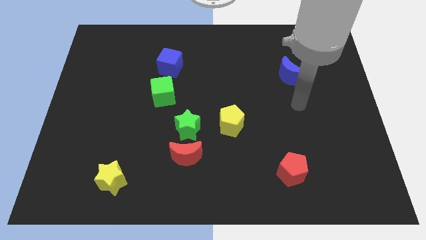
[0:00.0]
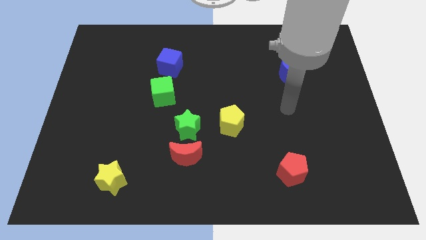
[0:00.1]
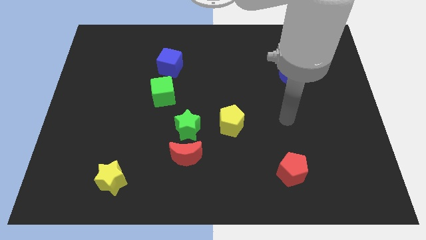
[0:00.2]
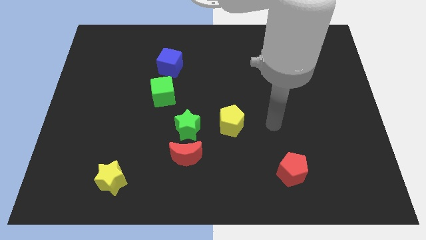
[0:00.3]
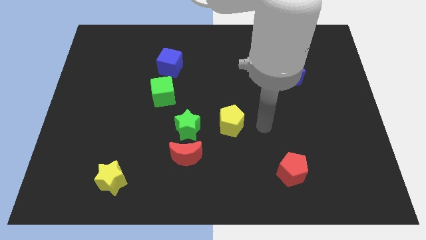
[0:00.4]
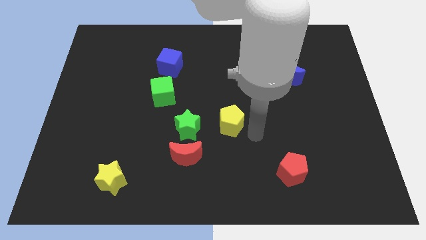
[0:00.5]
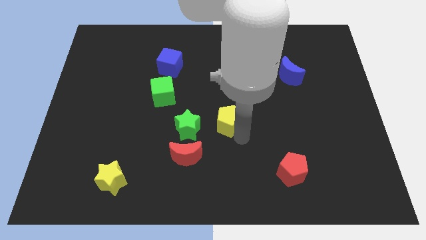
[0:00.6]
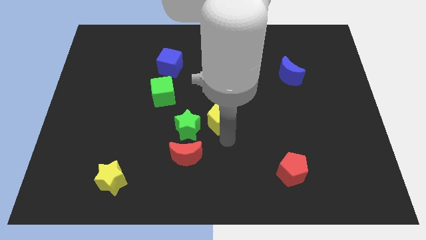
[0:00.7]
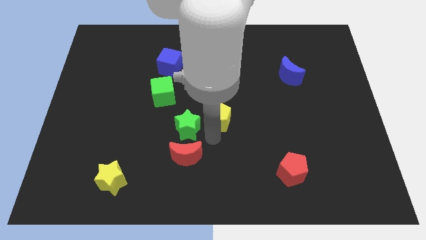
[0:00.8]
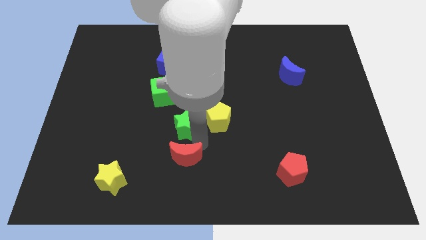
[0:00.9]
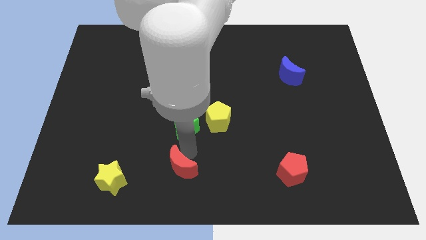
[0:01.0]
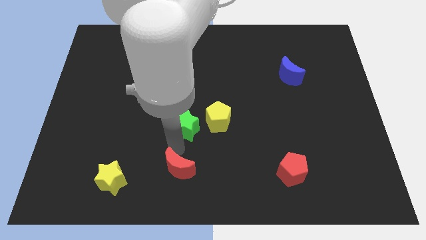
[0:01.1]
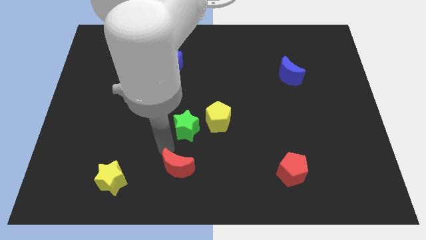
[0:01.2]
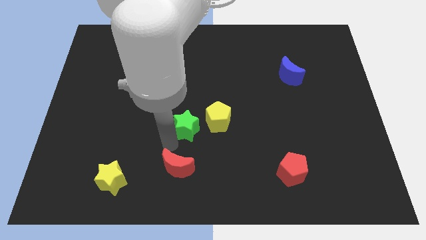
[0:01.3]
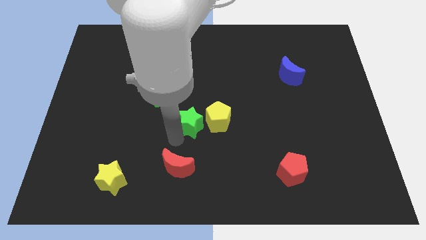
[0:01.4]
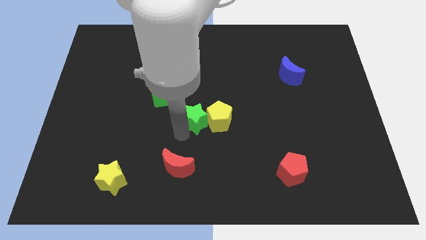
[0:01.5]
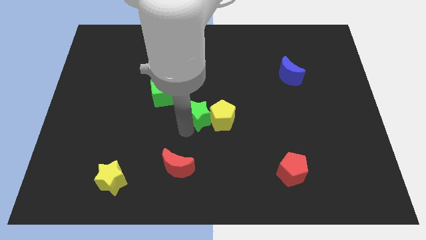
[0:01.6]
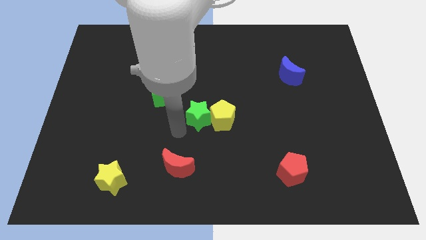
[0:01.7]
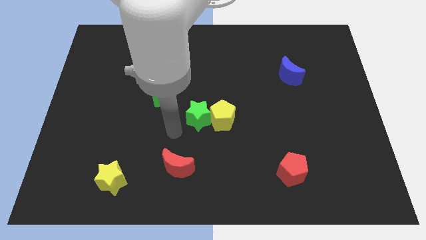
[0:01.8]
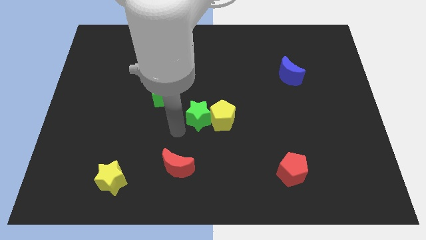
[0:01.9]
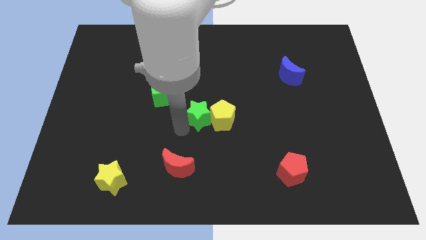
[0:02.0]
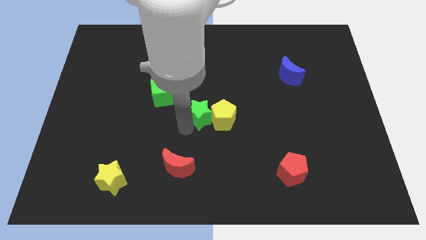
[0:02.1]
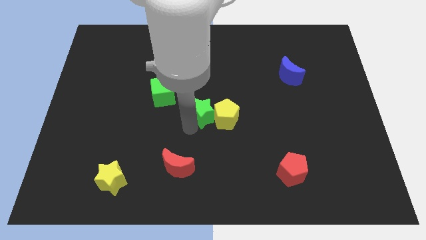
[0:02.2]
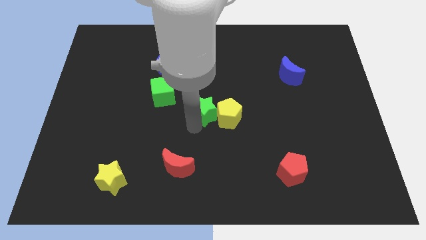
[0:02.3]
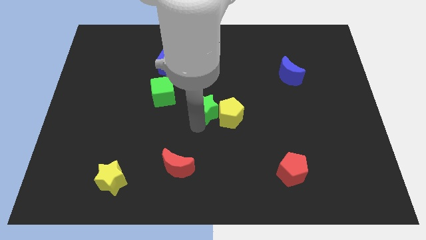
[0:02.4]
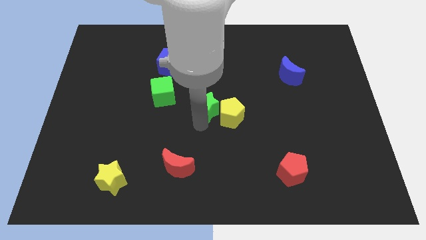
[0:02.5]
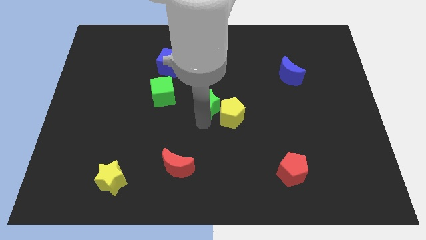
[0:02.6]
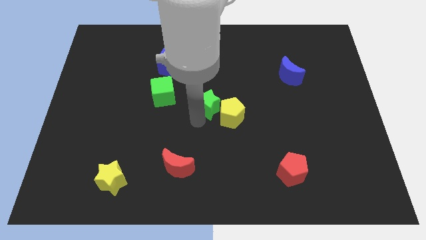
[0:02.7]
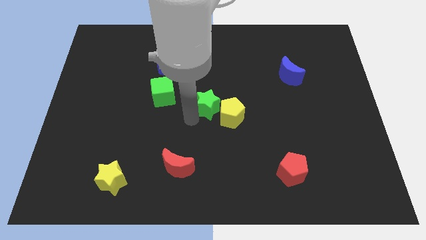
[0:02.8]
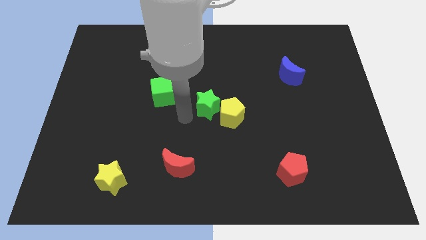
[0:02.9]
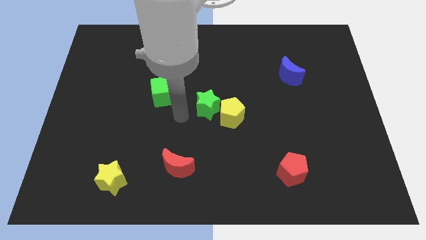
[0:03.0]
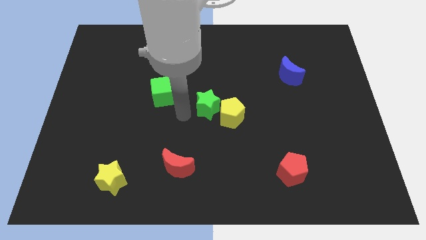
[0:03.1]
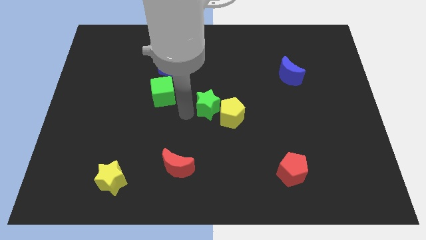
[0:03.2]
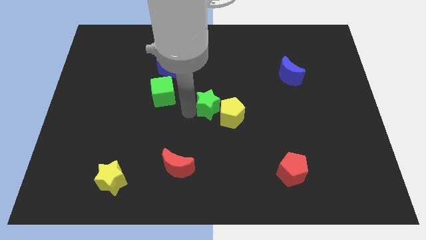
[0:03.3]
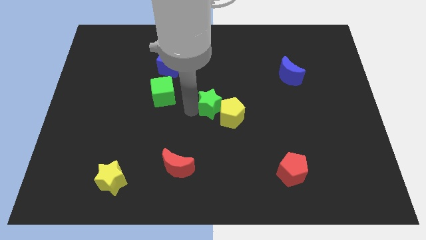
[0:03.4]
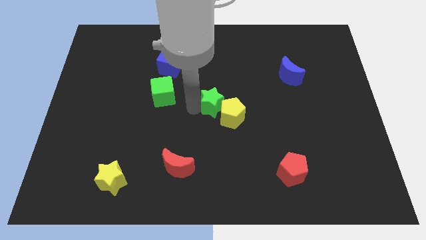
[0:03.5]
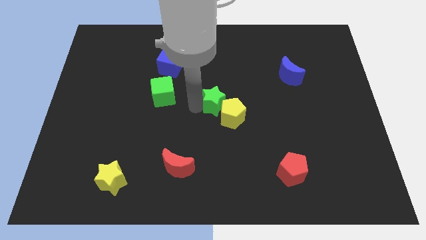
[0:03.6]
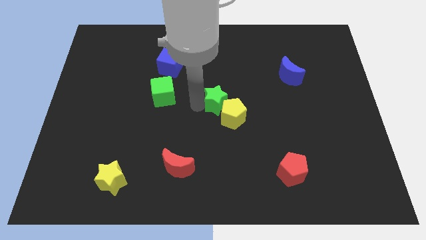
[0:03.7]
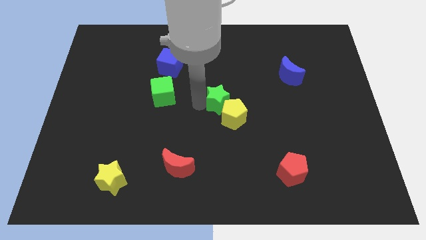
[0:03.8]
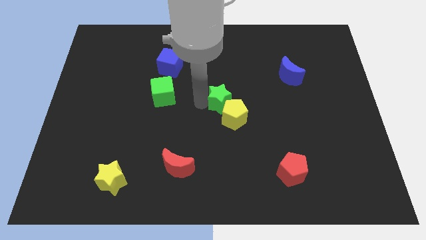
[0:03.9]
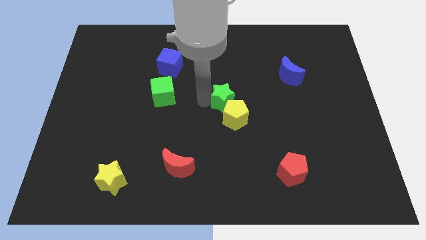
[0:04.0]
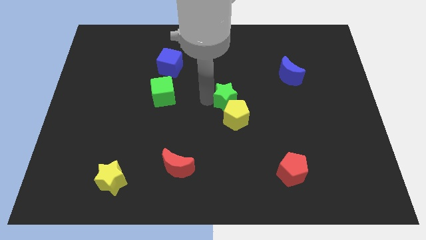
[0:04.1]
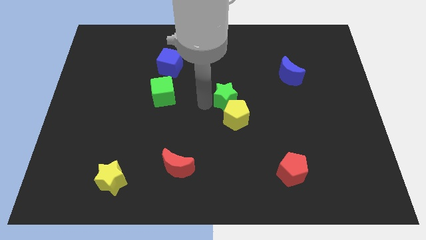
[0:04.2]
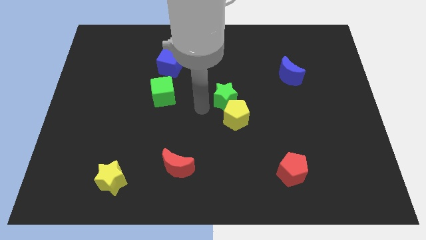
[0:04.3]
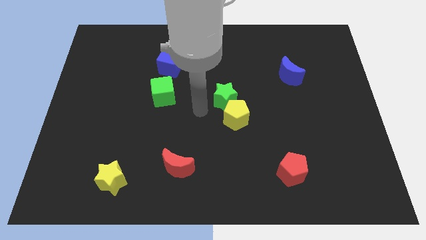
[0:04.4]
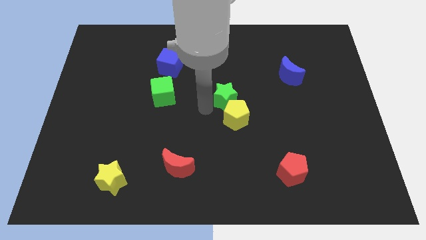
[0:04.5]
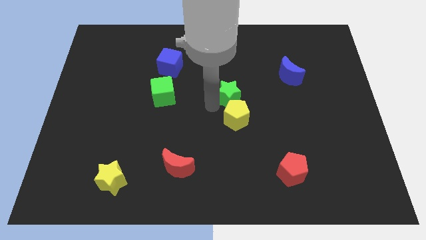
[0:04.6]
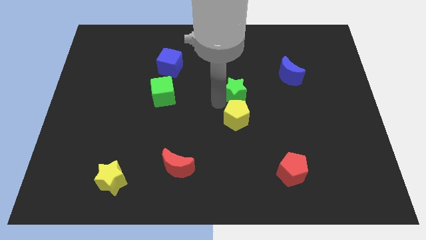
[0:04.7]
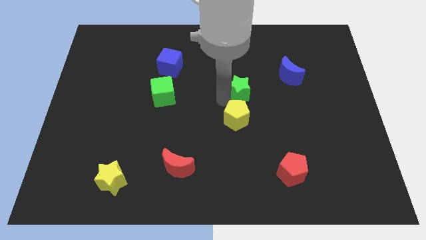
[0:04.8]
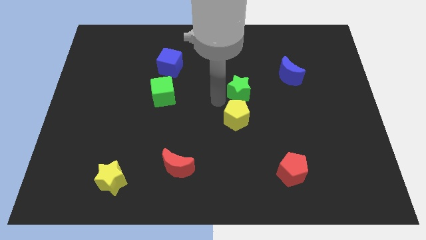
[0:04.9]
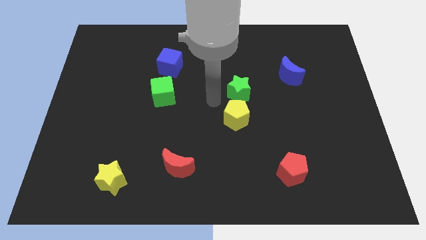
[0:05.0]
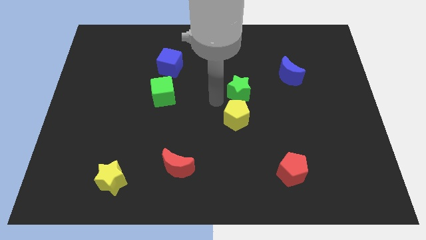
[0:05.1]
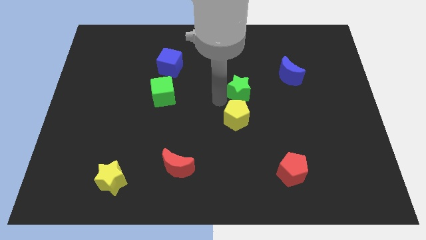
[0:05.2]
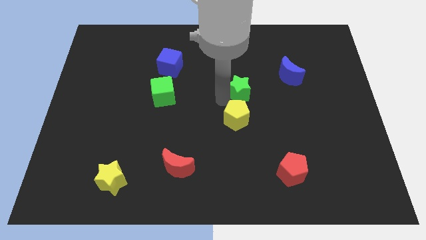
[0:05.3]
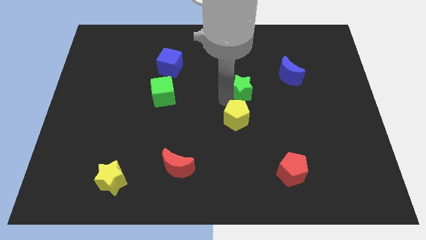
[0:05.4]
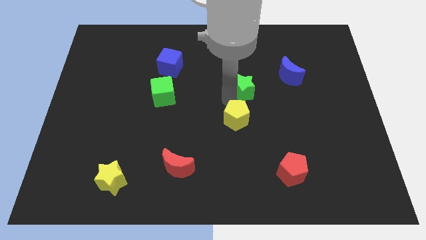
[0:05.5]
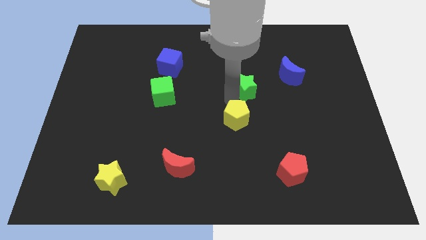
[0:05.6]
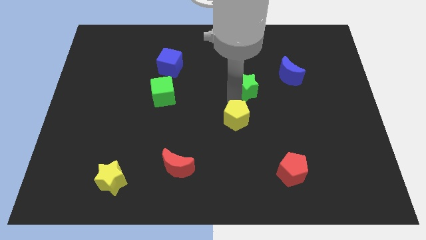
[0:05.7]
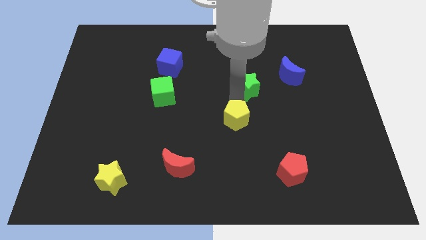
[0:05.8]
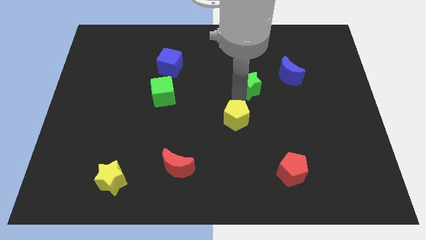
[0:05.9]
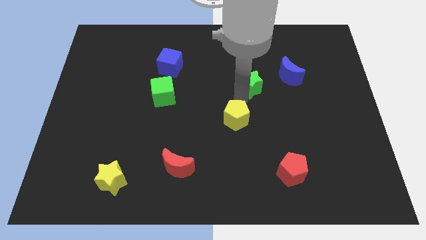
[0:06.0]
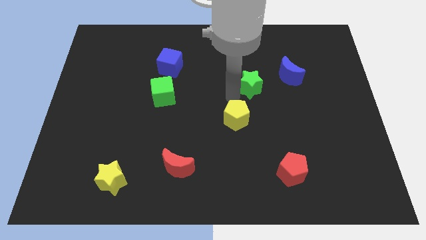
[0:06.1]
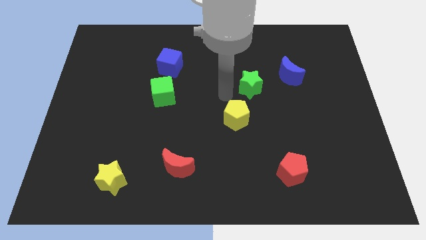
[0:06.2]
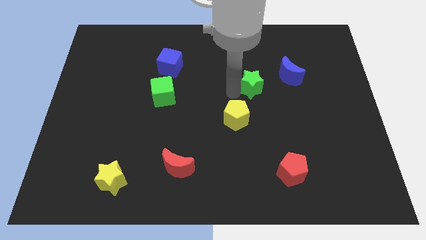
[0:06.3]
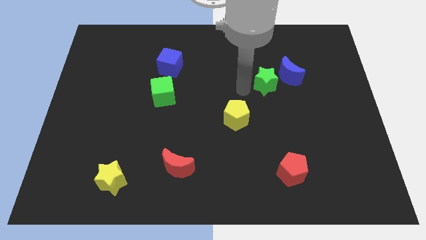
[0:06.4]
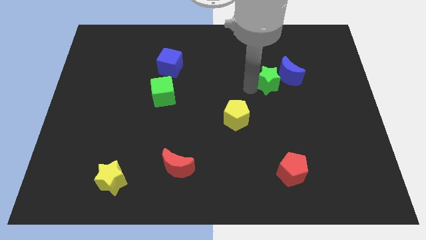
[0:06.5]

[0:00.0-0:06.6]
push the green star next to the blue moon
